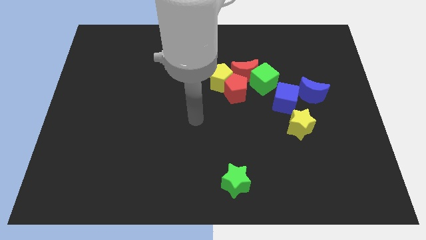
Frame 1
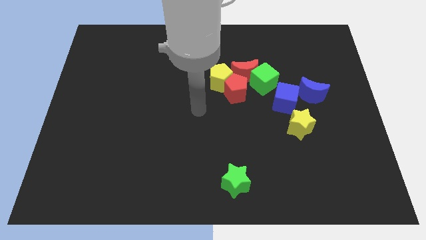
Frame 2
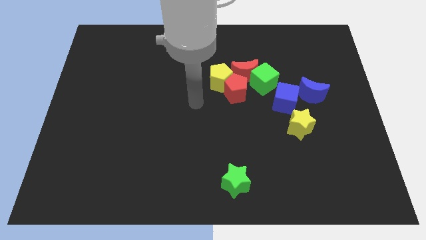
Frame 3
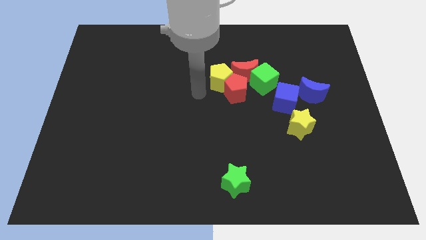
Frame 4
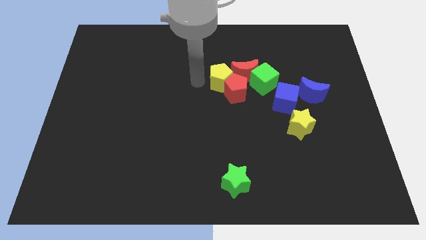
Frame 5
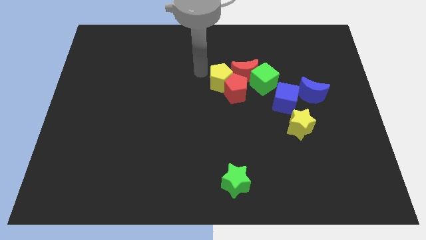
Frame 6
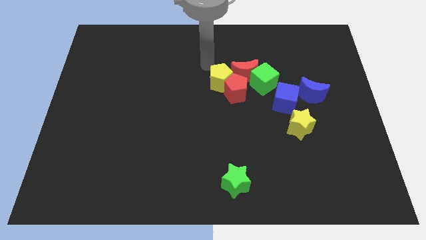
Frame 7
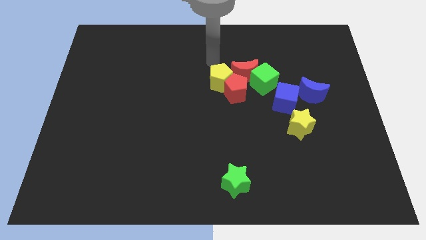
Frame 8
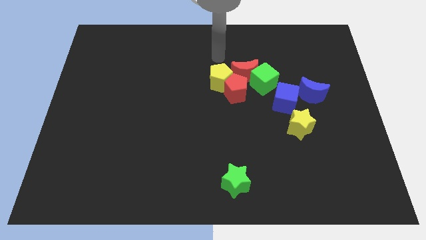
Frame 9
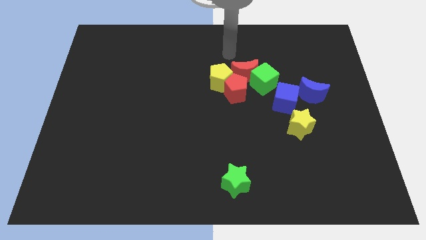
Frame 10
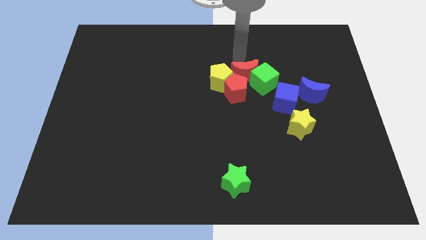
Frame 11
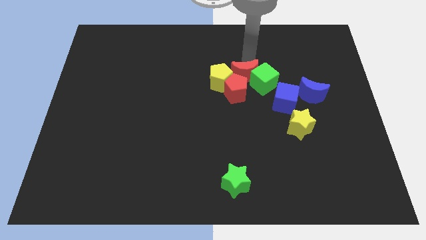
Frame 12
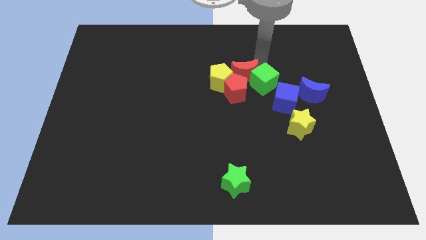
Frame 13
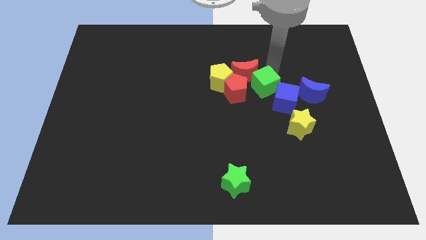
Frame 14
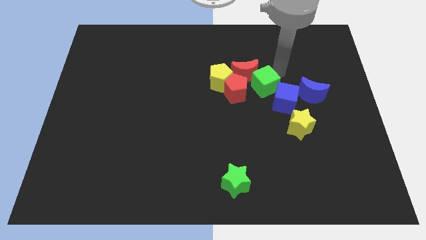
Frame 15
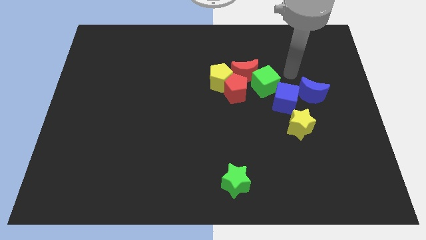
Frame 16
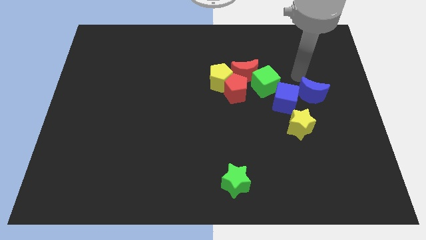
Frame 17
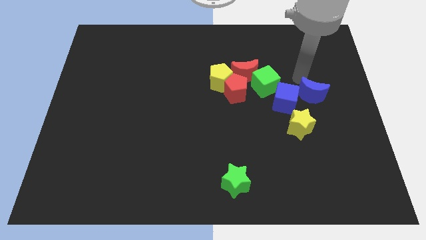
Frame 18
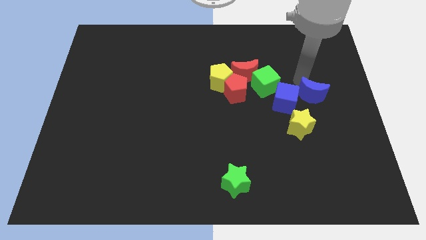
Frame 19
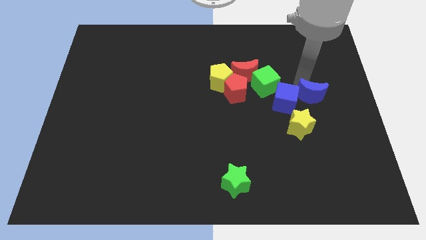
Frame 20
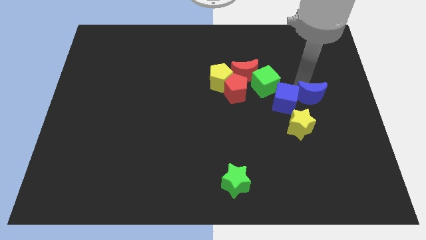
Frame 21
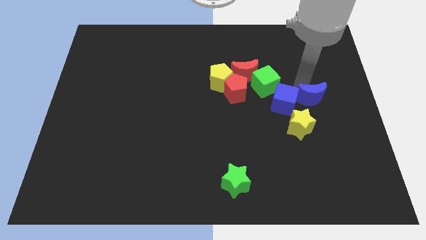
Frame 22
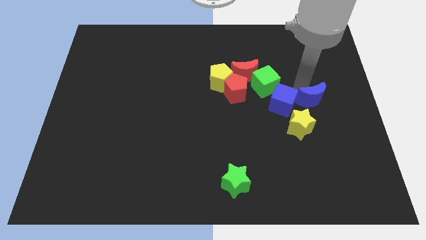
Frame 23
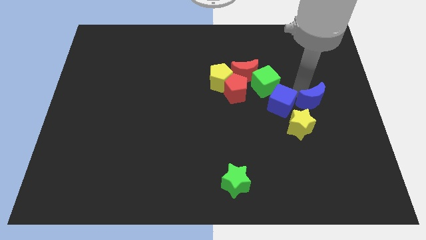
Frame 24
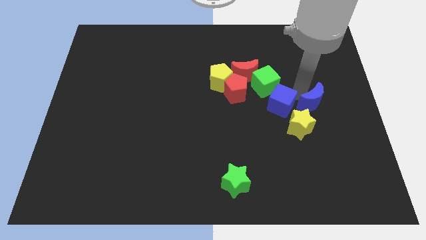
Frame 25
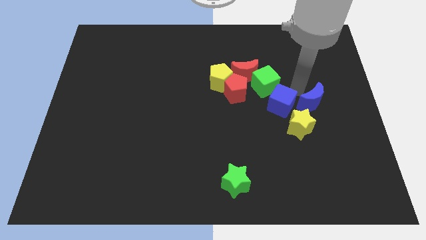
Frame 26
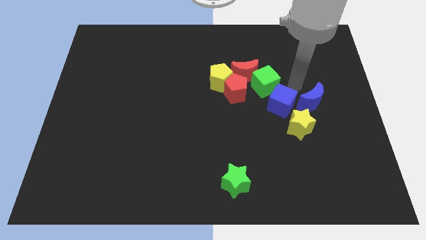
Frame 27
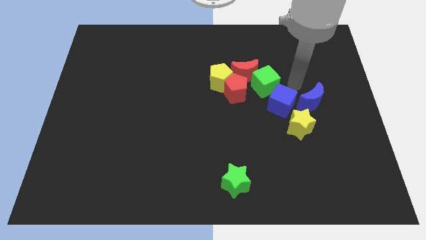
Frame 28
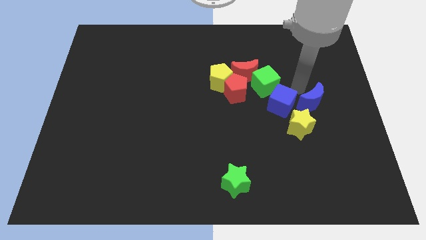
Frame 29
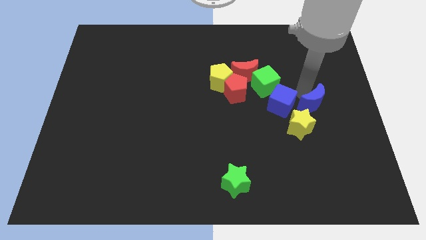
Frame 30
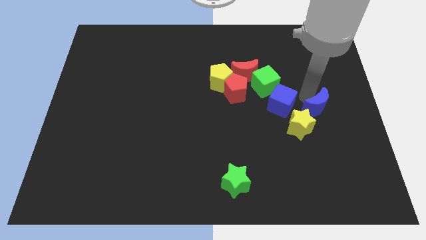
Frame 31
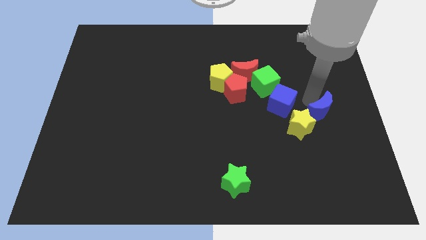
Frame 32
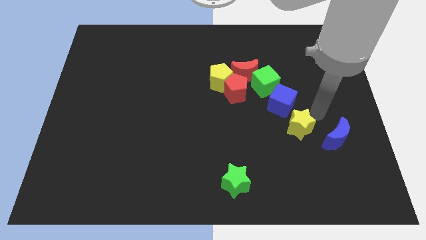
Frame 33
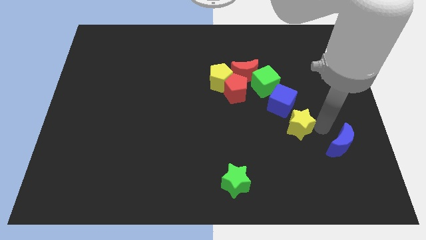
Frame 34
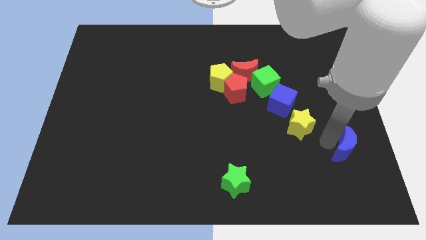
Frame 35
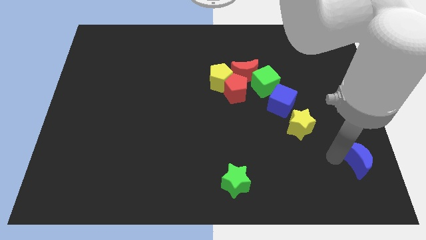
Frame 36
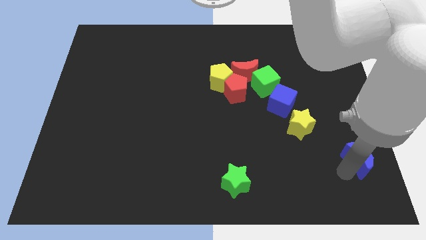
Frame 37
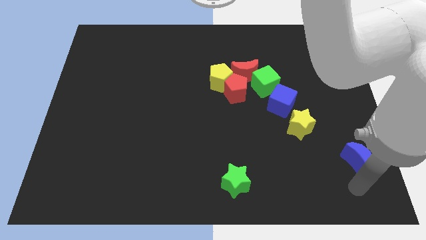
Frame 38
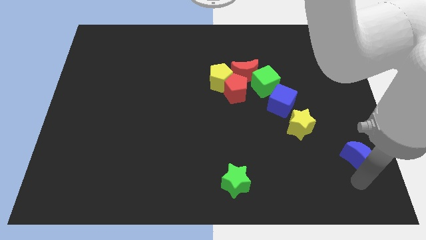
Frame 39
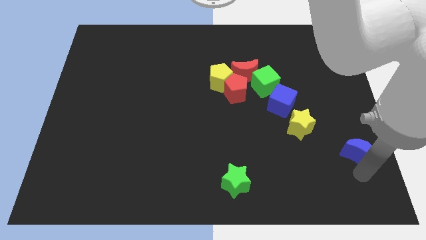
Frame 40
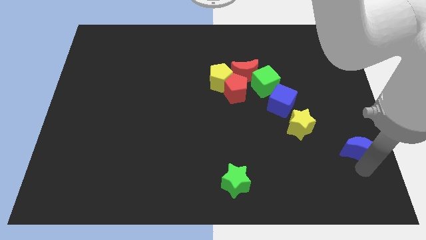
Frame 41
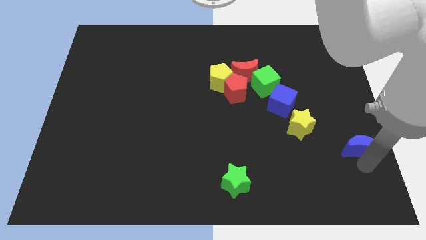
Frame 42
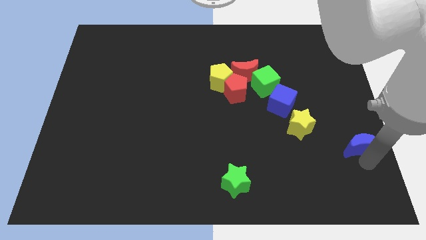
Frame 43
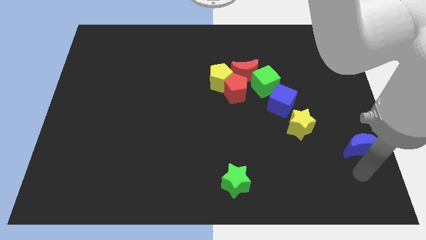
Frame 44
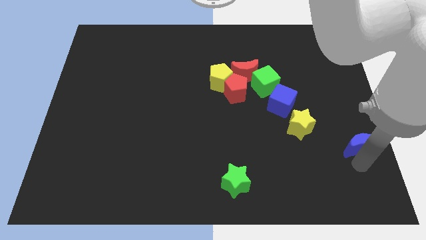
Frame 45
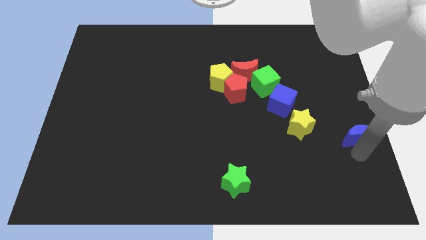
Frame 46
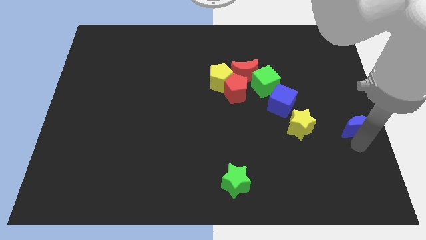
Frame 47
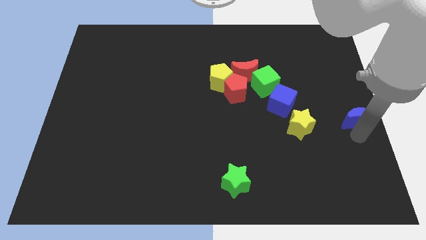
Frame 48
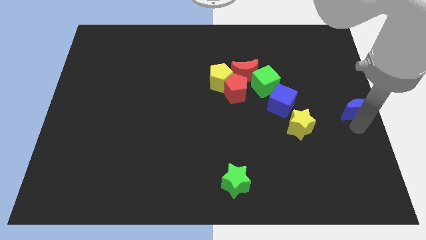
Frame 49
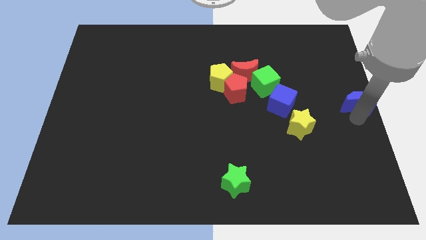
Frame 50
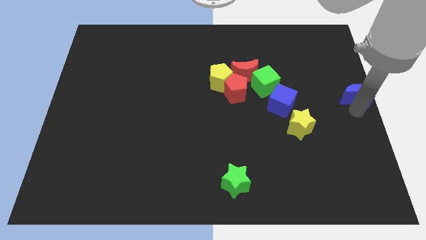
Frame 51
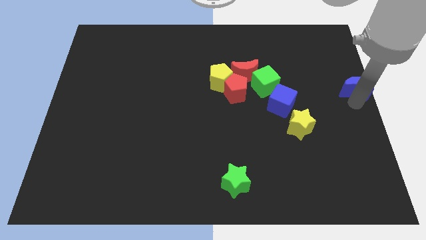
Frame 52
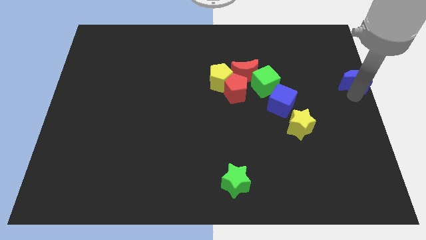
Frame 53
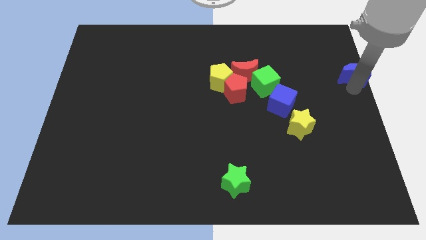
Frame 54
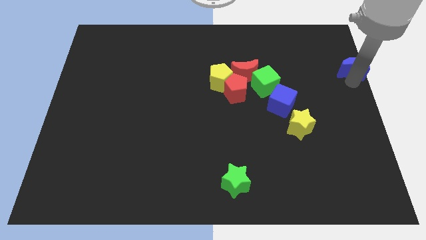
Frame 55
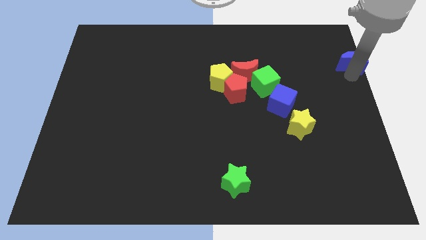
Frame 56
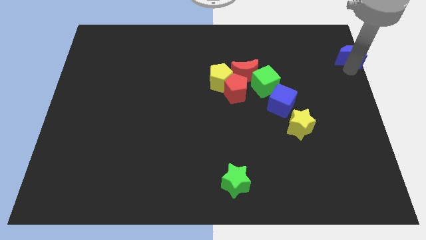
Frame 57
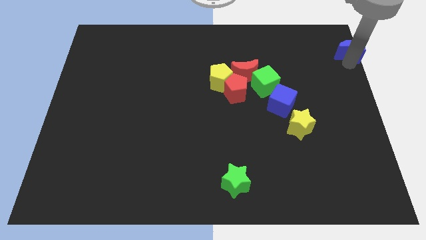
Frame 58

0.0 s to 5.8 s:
push the blue moon to the top right of the board
